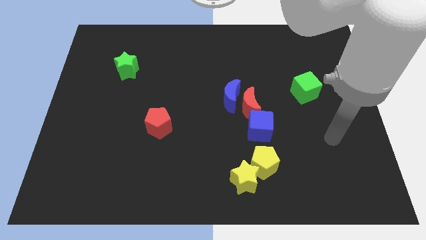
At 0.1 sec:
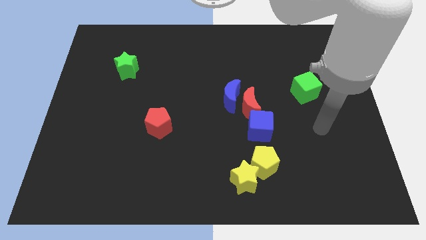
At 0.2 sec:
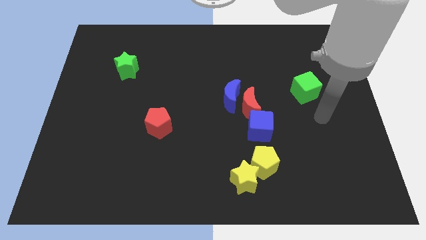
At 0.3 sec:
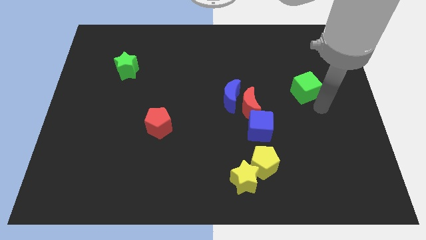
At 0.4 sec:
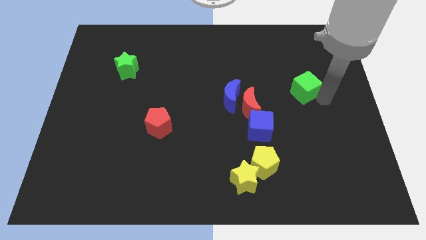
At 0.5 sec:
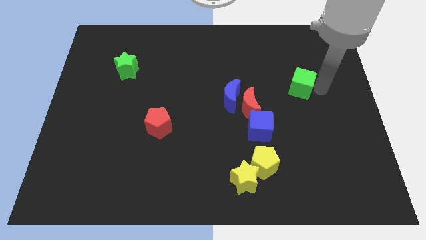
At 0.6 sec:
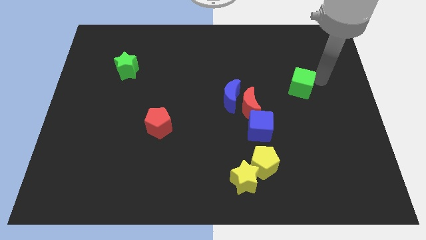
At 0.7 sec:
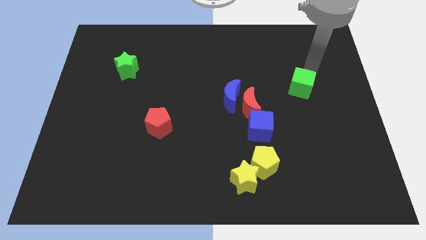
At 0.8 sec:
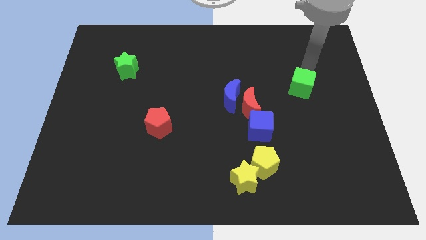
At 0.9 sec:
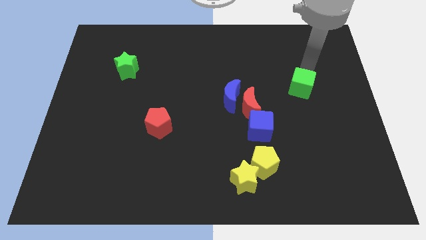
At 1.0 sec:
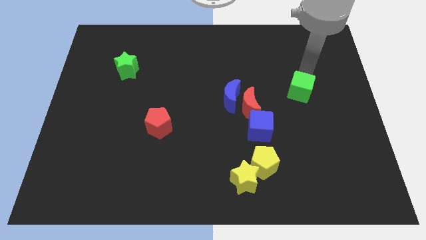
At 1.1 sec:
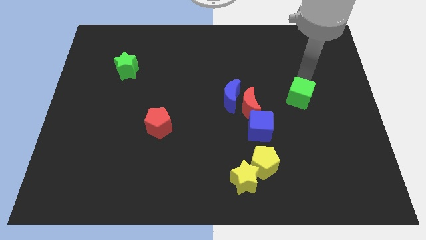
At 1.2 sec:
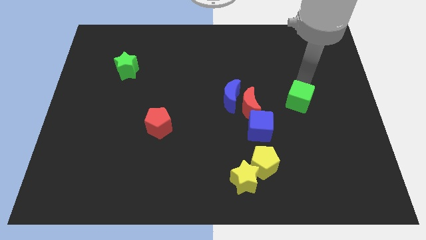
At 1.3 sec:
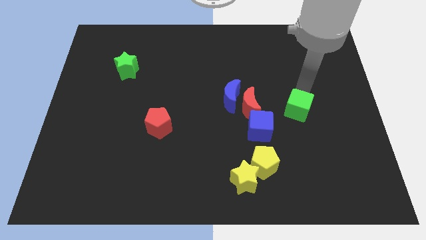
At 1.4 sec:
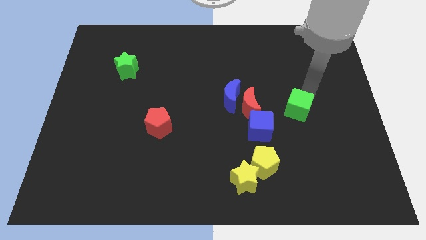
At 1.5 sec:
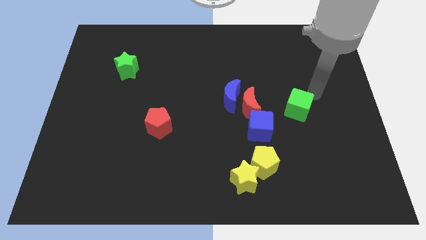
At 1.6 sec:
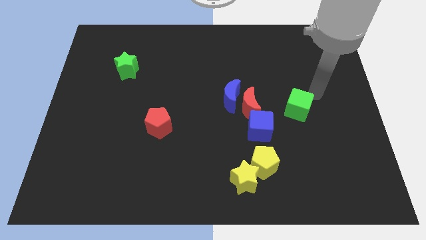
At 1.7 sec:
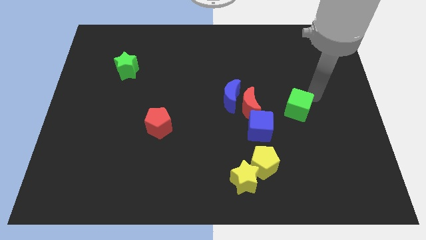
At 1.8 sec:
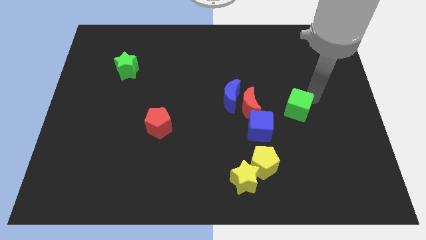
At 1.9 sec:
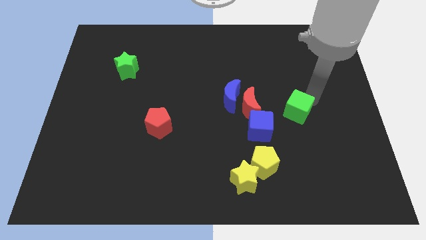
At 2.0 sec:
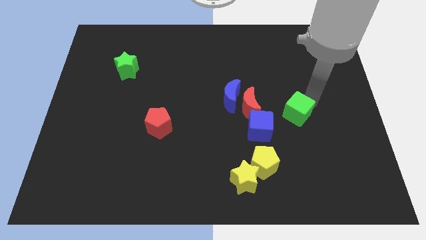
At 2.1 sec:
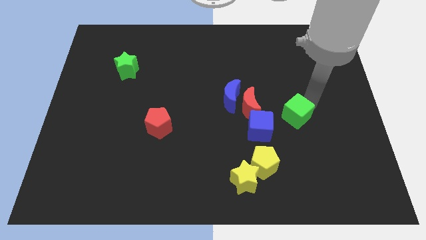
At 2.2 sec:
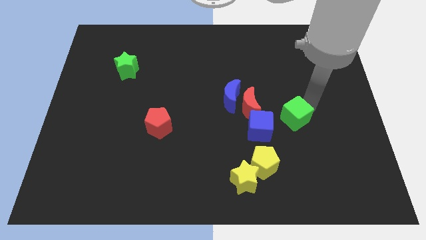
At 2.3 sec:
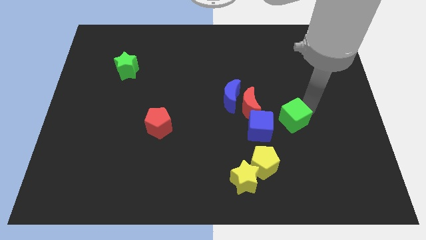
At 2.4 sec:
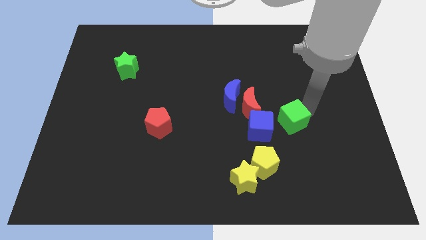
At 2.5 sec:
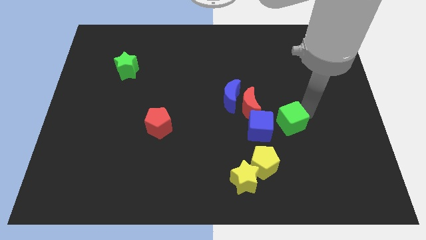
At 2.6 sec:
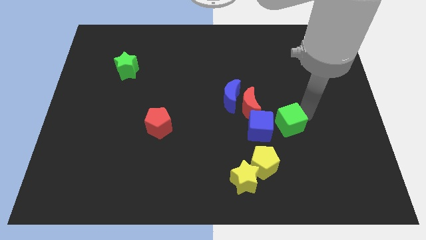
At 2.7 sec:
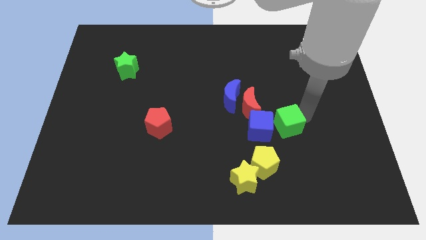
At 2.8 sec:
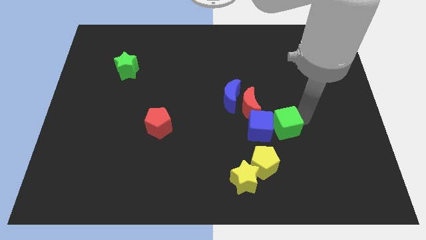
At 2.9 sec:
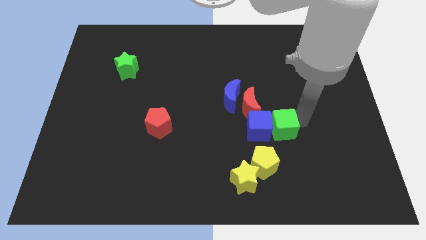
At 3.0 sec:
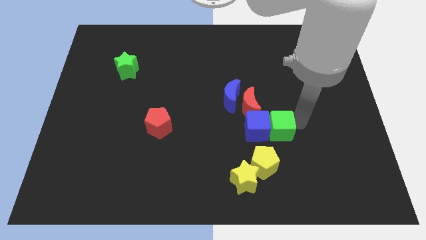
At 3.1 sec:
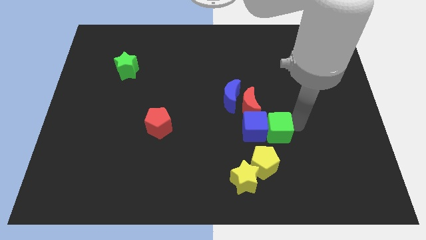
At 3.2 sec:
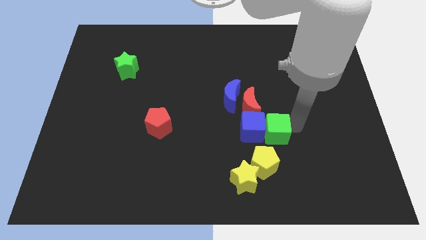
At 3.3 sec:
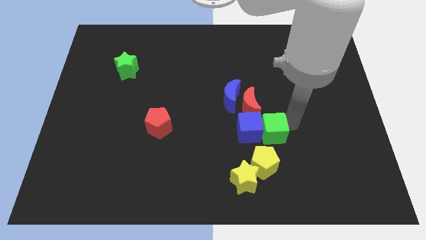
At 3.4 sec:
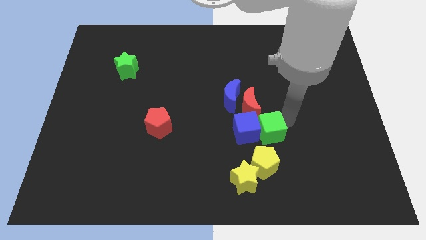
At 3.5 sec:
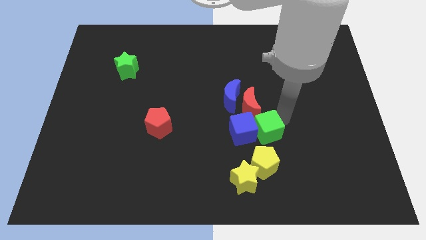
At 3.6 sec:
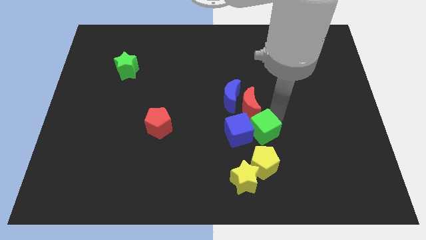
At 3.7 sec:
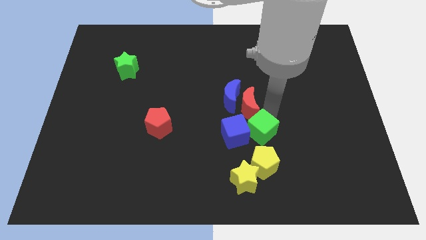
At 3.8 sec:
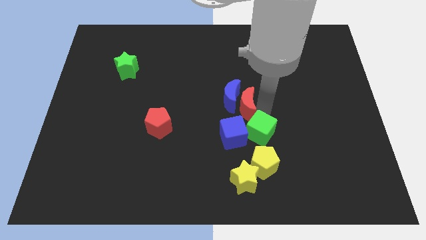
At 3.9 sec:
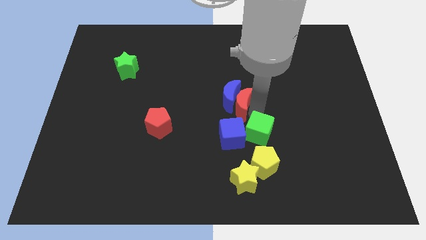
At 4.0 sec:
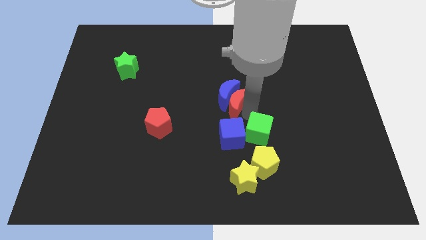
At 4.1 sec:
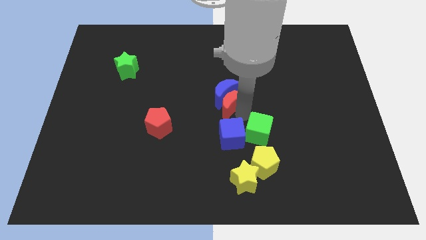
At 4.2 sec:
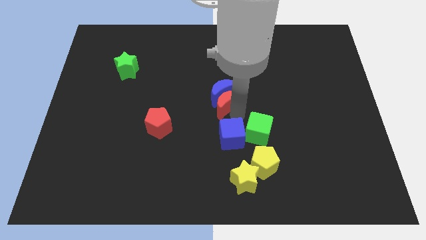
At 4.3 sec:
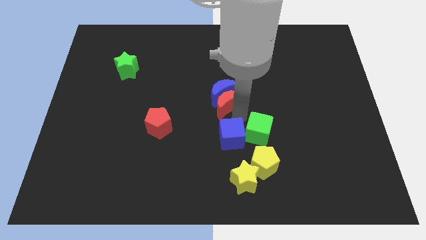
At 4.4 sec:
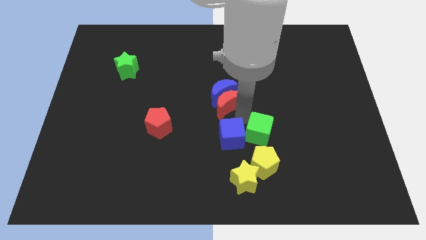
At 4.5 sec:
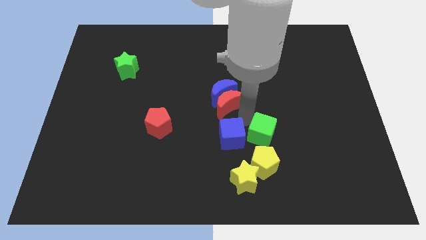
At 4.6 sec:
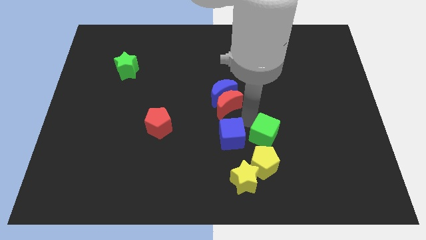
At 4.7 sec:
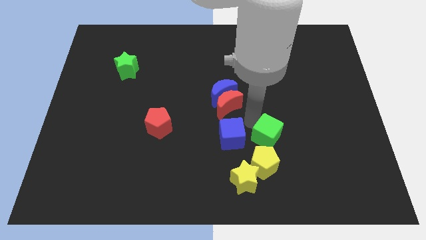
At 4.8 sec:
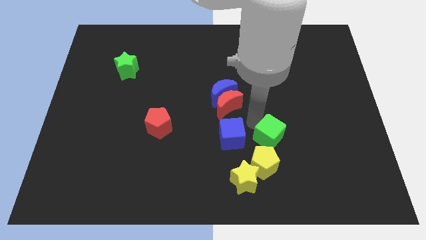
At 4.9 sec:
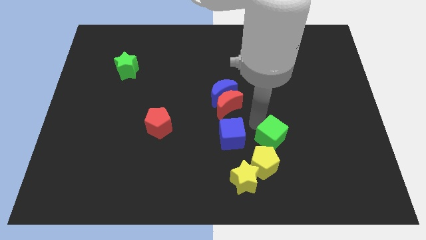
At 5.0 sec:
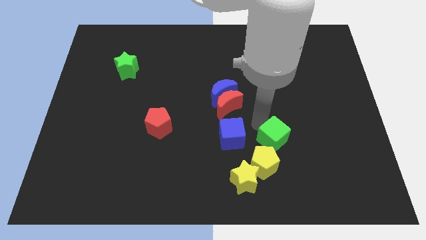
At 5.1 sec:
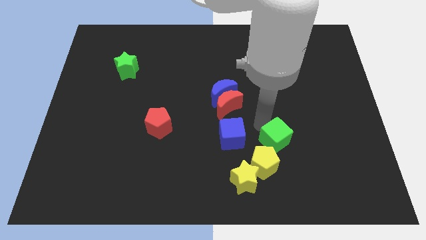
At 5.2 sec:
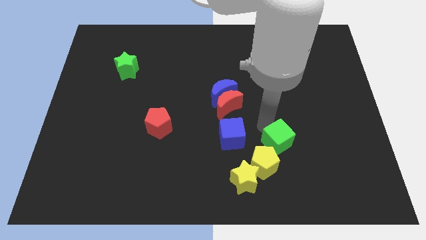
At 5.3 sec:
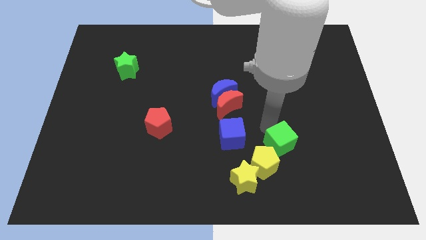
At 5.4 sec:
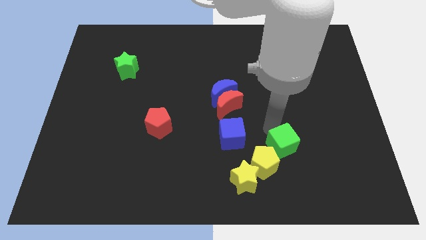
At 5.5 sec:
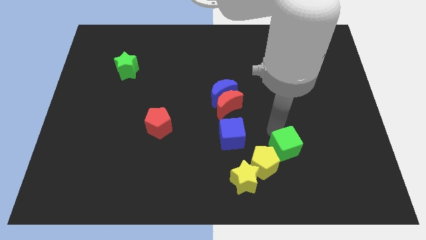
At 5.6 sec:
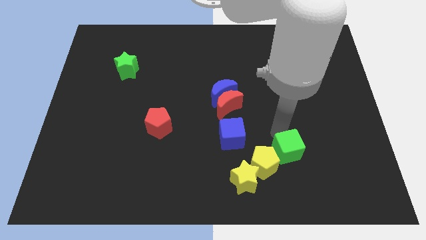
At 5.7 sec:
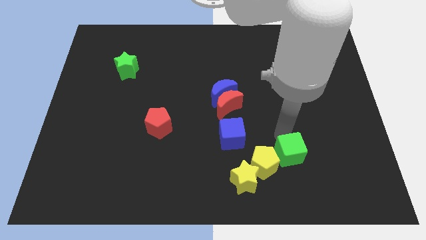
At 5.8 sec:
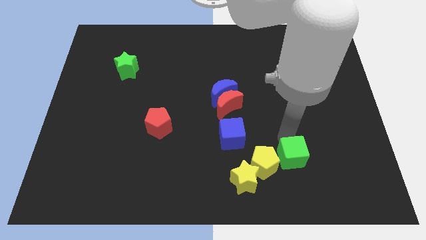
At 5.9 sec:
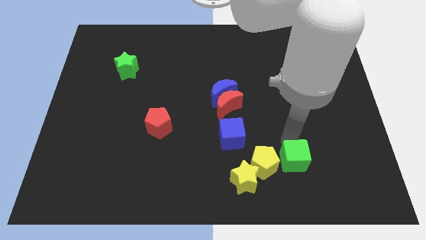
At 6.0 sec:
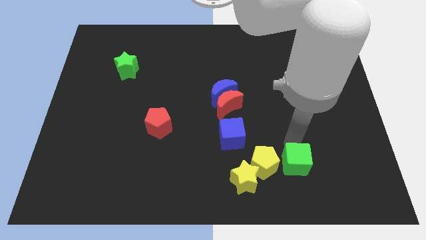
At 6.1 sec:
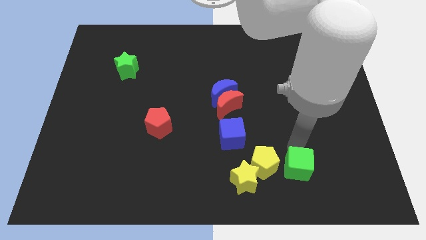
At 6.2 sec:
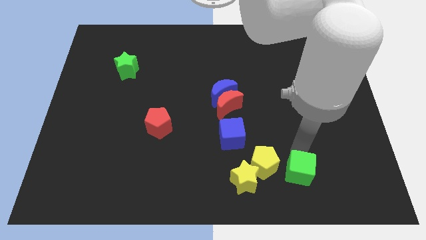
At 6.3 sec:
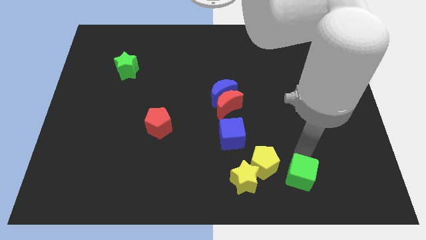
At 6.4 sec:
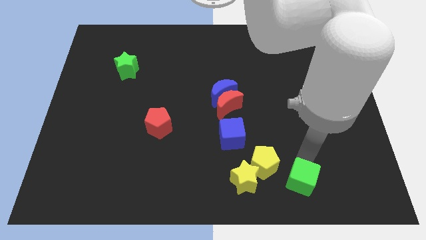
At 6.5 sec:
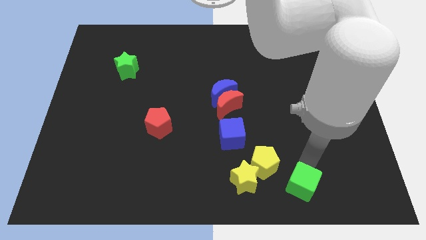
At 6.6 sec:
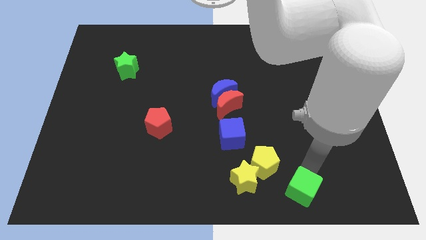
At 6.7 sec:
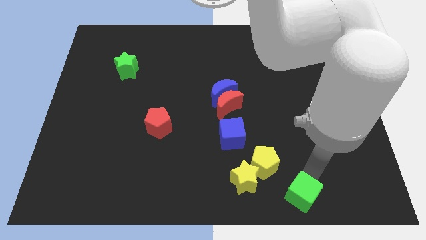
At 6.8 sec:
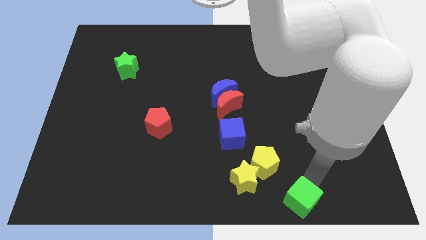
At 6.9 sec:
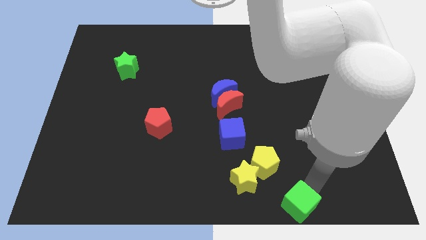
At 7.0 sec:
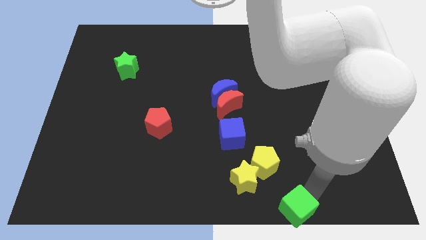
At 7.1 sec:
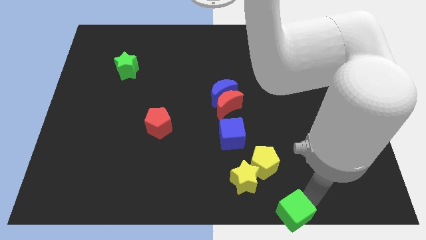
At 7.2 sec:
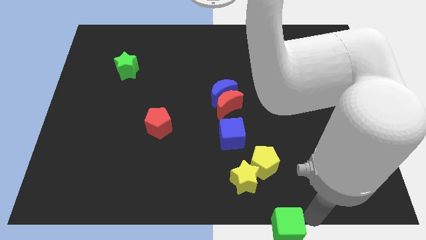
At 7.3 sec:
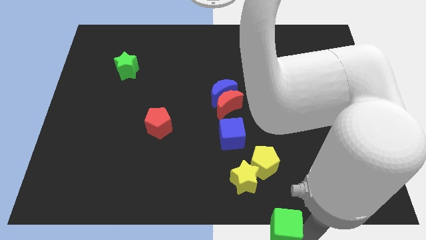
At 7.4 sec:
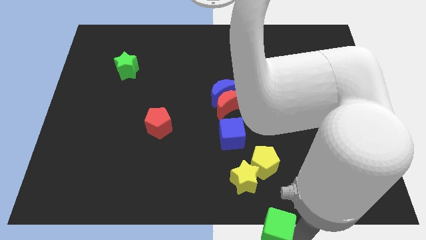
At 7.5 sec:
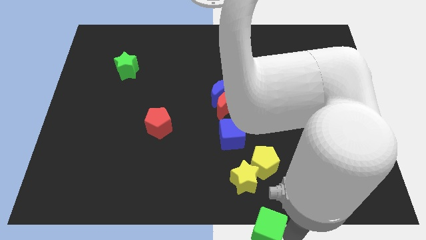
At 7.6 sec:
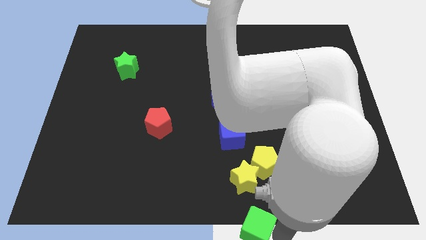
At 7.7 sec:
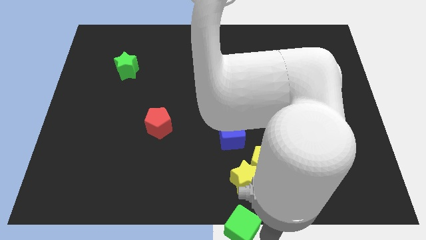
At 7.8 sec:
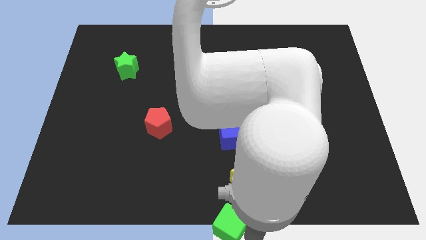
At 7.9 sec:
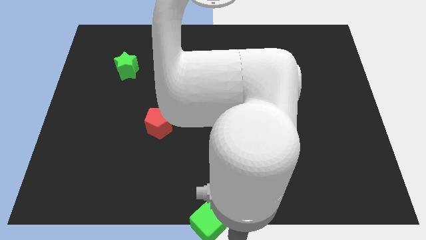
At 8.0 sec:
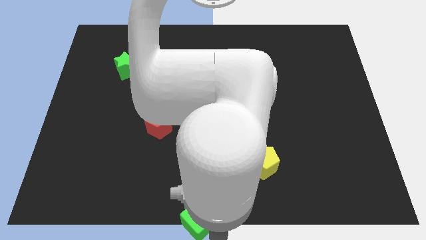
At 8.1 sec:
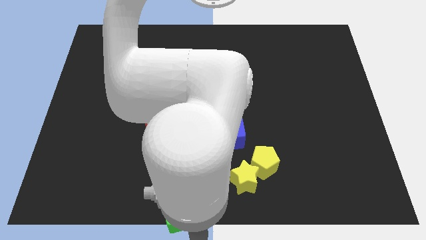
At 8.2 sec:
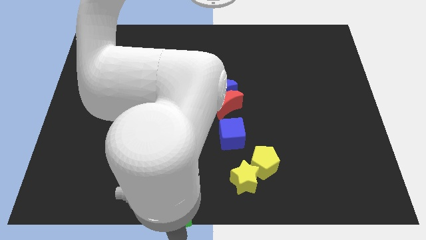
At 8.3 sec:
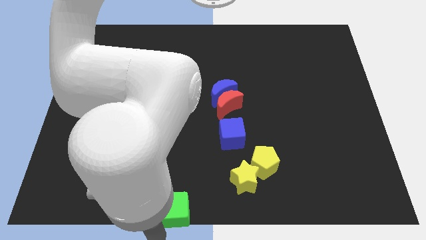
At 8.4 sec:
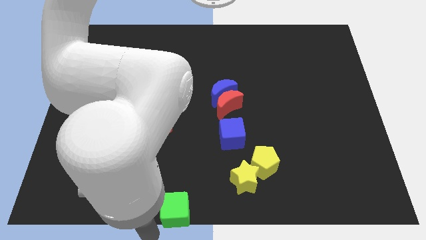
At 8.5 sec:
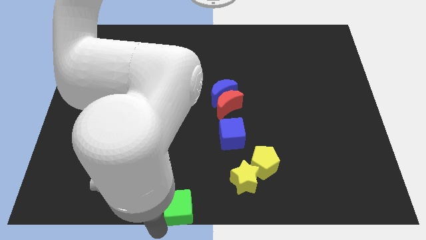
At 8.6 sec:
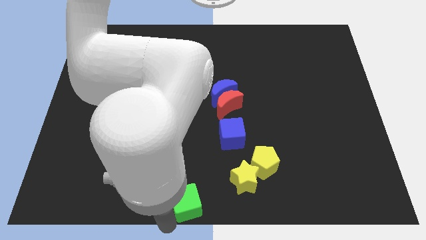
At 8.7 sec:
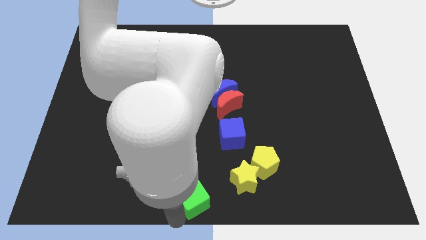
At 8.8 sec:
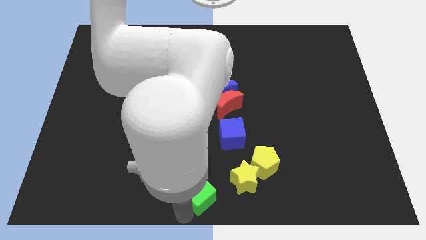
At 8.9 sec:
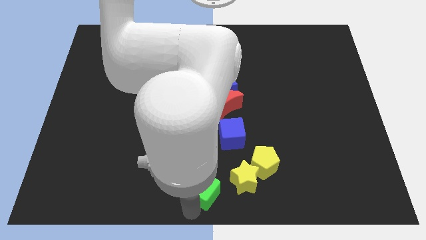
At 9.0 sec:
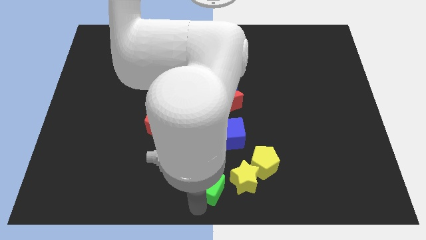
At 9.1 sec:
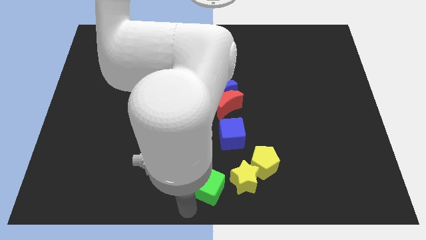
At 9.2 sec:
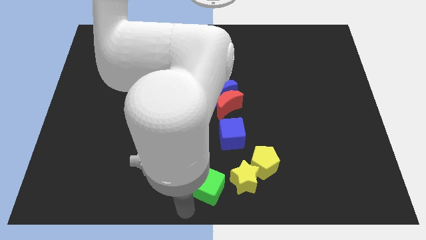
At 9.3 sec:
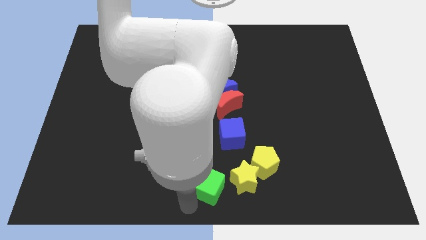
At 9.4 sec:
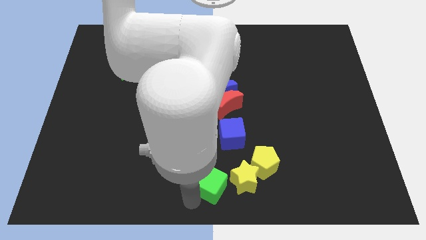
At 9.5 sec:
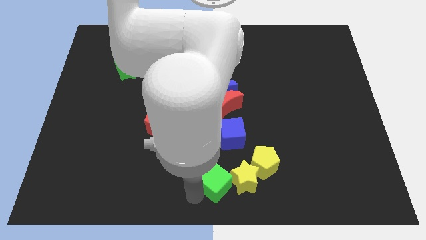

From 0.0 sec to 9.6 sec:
move the green cube towards the yellow star
